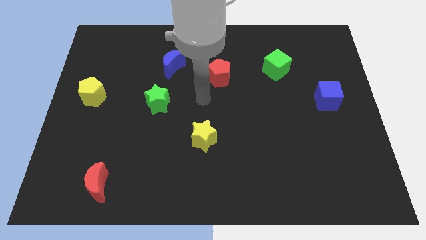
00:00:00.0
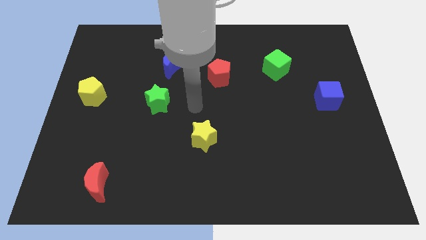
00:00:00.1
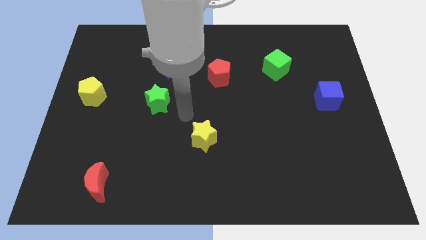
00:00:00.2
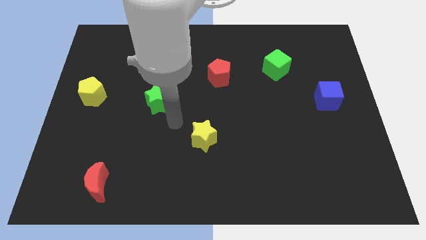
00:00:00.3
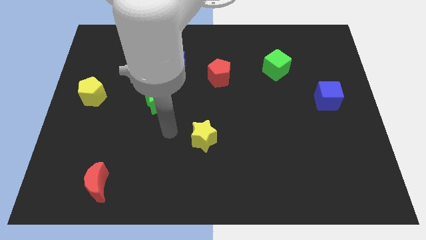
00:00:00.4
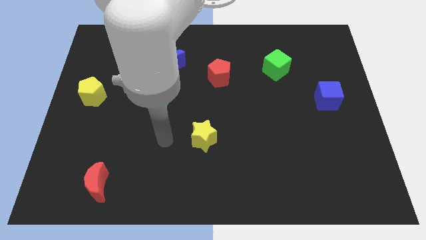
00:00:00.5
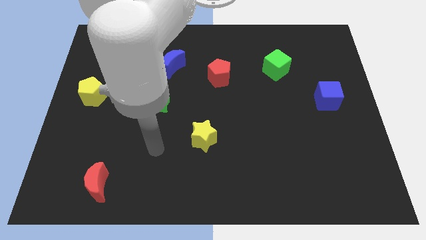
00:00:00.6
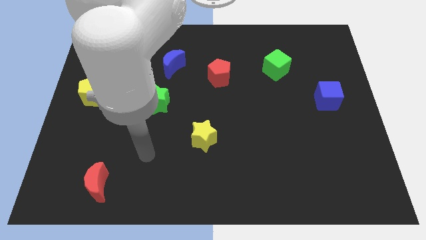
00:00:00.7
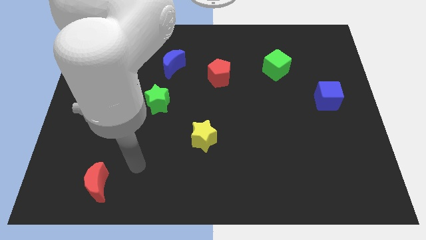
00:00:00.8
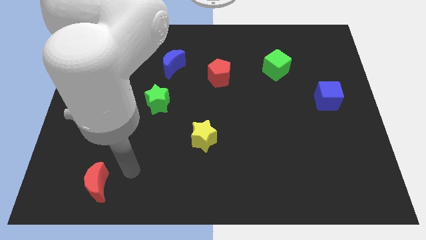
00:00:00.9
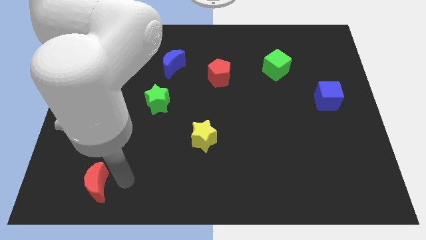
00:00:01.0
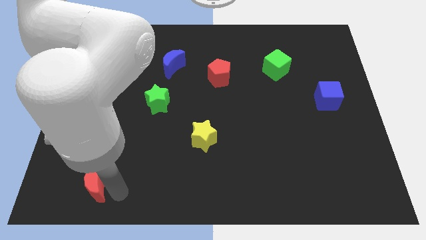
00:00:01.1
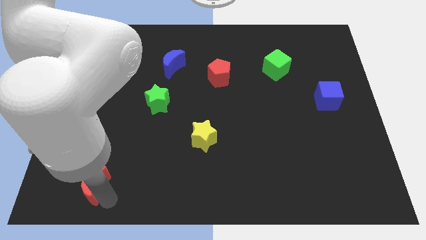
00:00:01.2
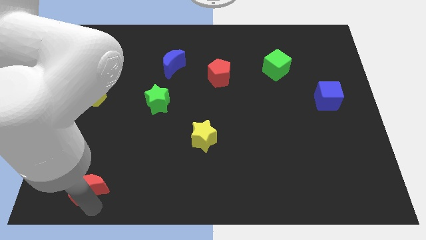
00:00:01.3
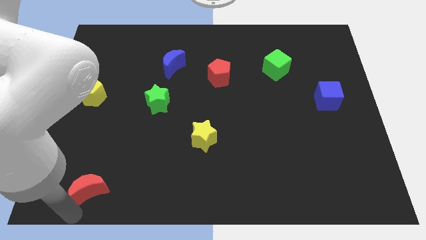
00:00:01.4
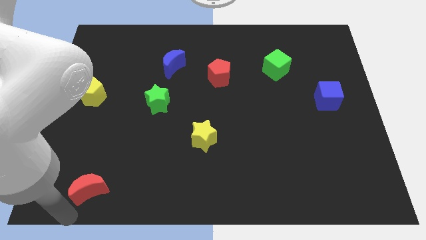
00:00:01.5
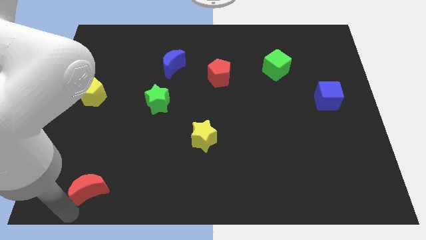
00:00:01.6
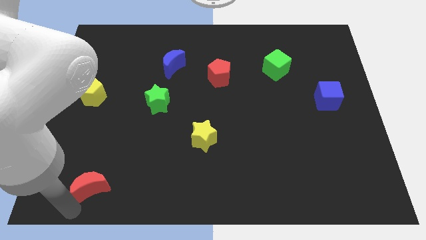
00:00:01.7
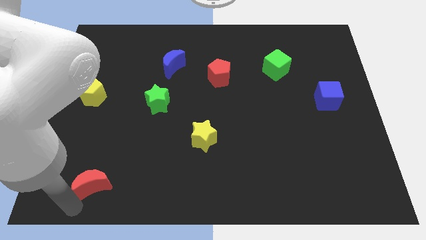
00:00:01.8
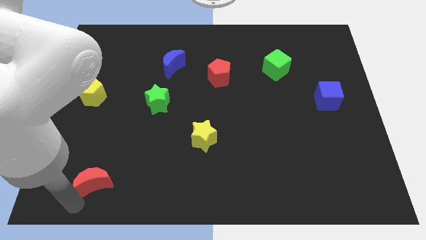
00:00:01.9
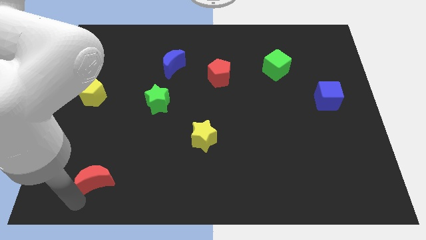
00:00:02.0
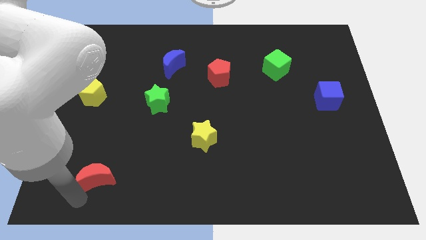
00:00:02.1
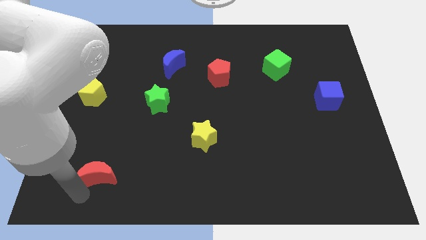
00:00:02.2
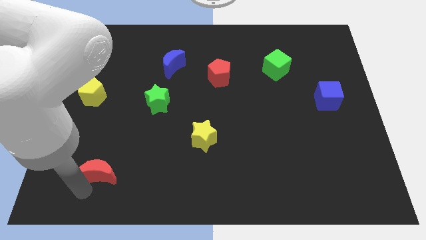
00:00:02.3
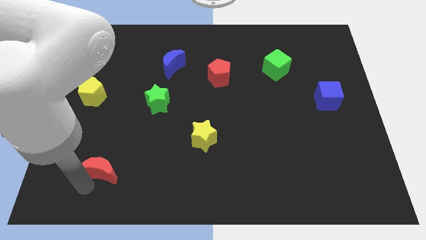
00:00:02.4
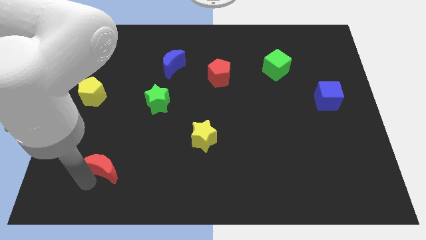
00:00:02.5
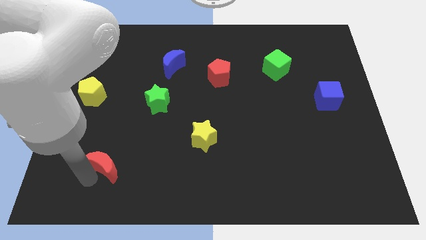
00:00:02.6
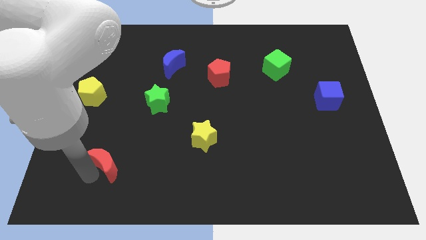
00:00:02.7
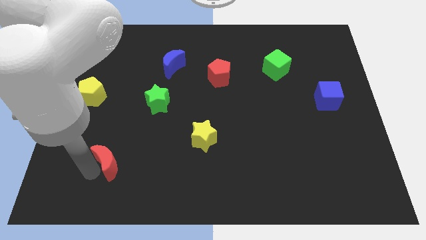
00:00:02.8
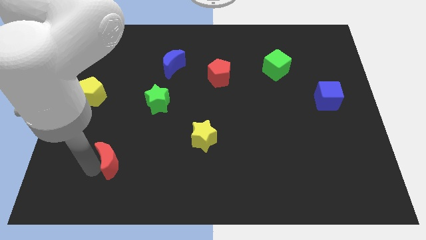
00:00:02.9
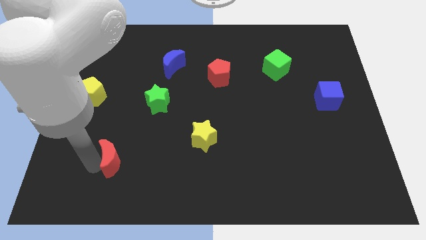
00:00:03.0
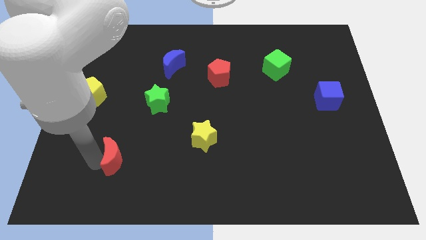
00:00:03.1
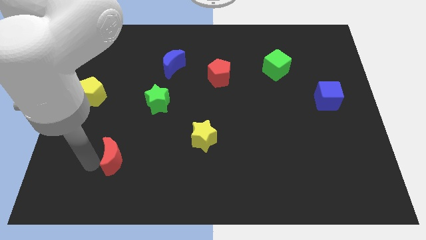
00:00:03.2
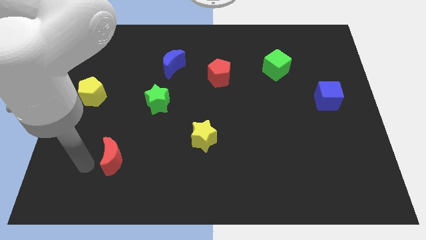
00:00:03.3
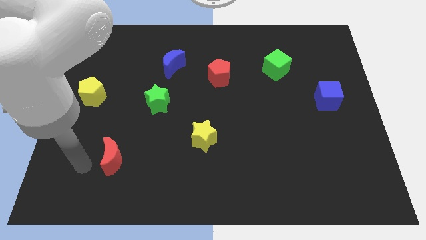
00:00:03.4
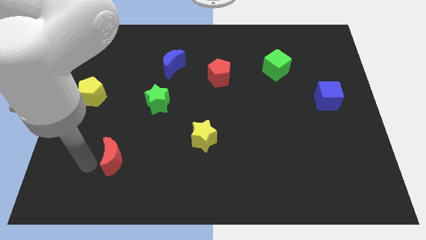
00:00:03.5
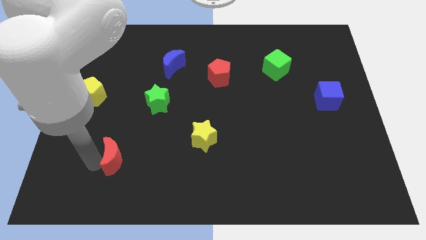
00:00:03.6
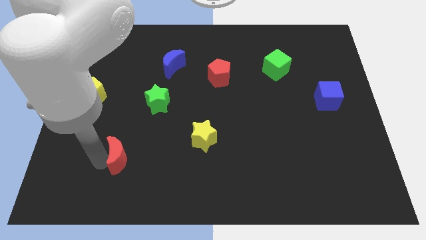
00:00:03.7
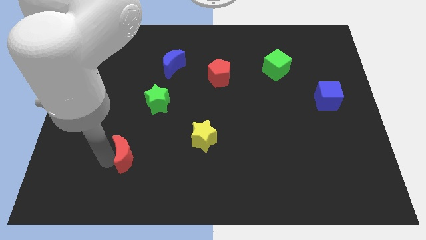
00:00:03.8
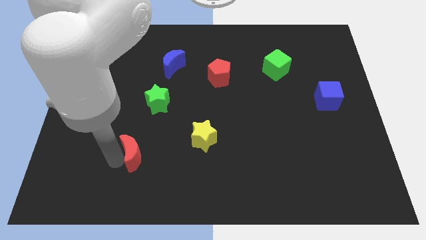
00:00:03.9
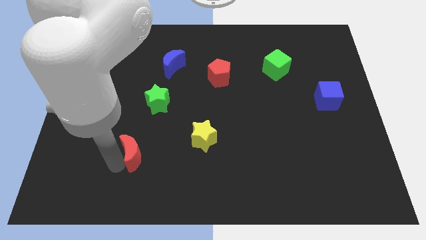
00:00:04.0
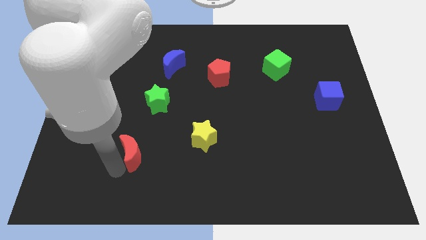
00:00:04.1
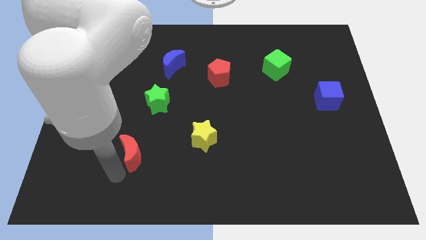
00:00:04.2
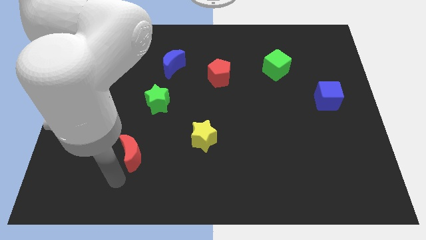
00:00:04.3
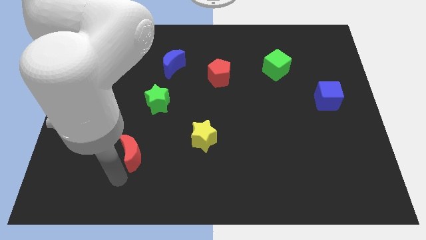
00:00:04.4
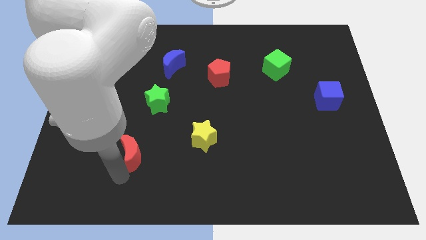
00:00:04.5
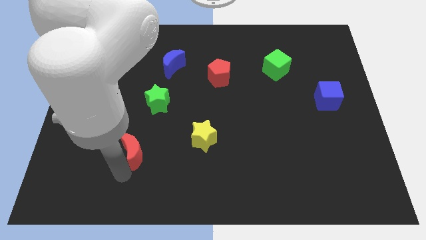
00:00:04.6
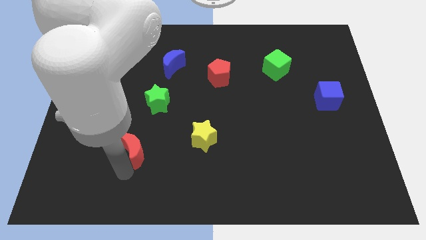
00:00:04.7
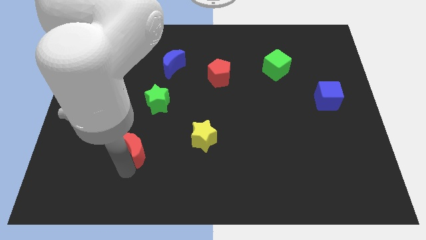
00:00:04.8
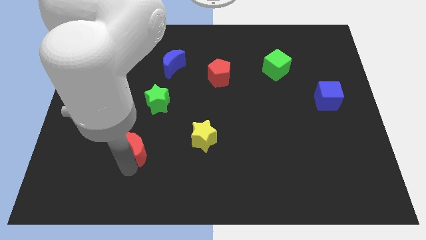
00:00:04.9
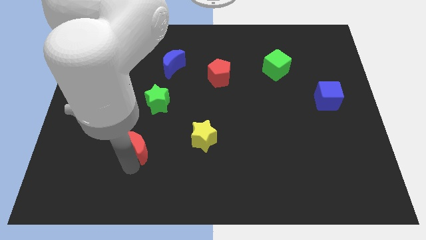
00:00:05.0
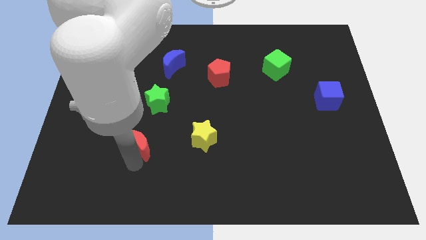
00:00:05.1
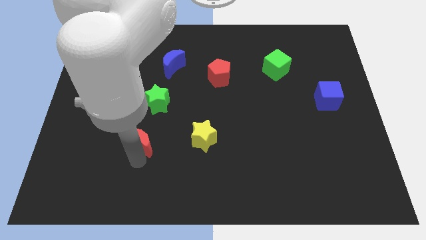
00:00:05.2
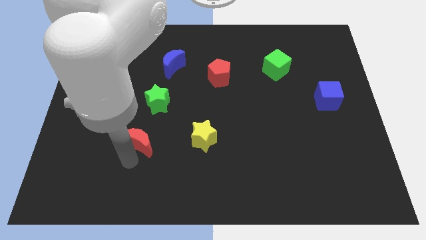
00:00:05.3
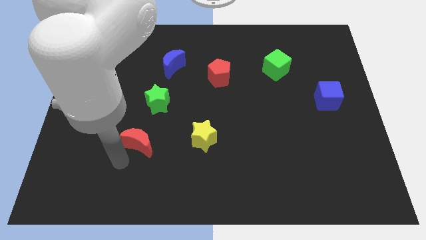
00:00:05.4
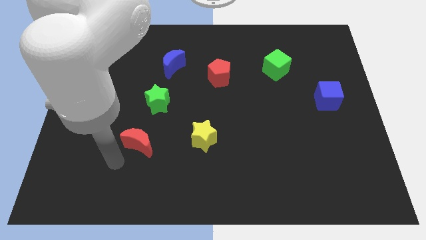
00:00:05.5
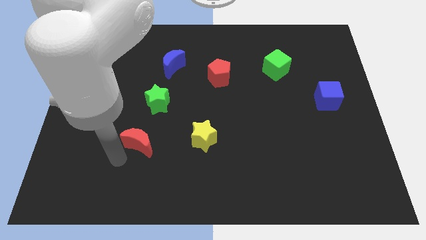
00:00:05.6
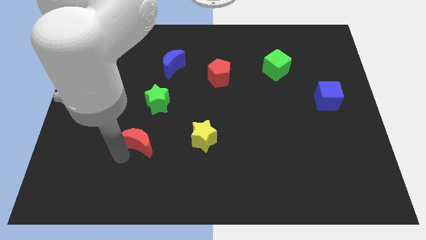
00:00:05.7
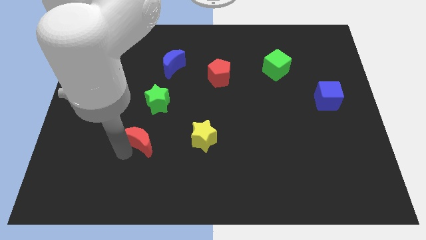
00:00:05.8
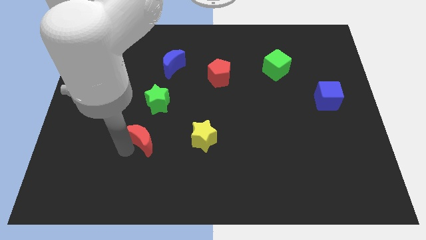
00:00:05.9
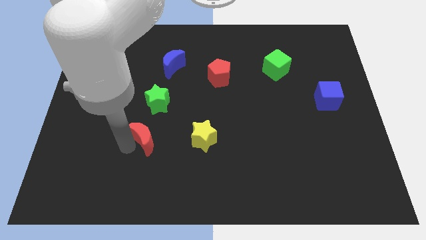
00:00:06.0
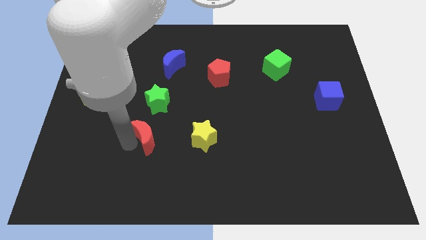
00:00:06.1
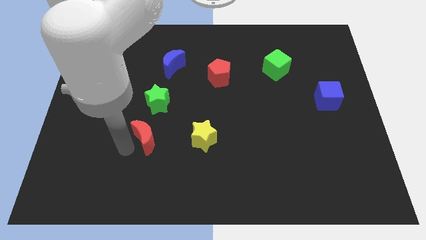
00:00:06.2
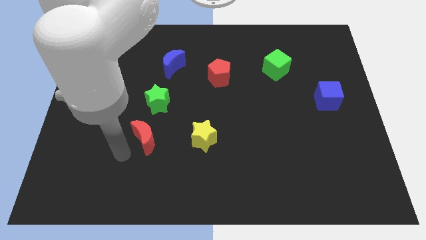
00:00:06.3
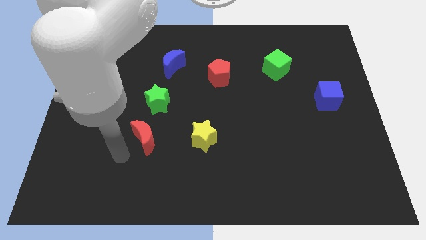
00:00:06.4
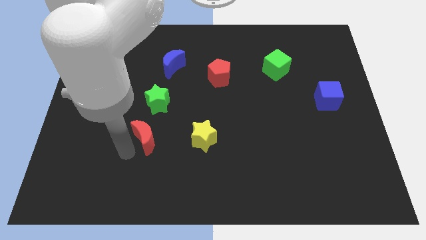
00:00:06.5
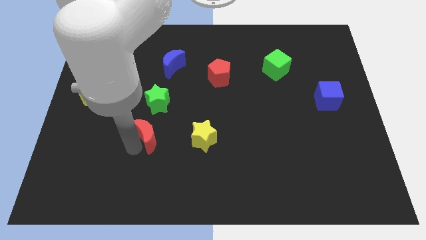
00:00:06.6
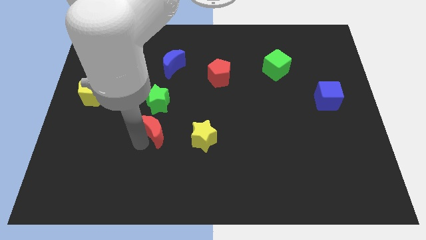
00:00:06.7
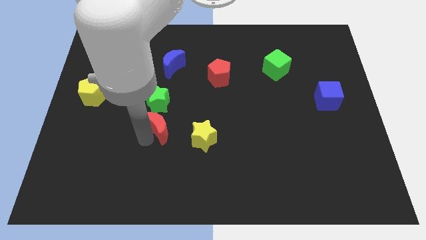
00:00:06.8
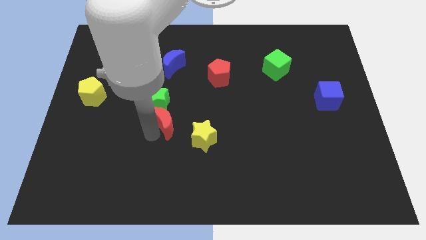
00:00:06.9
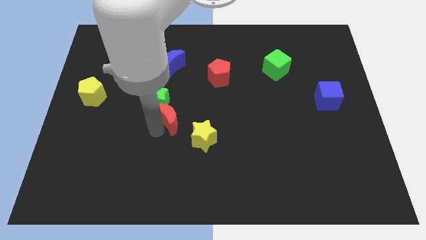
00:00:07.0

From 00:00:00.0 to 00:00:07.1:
slide the red moon up and right

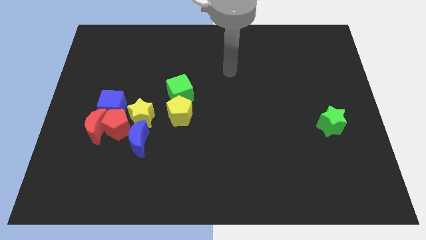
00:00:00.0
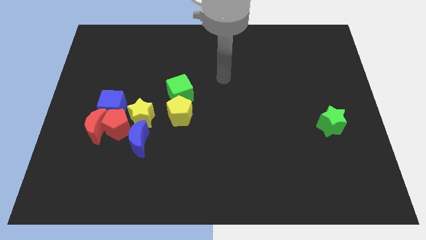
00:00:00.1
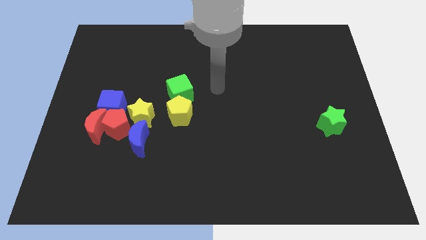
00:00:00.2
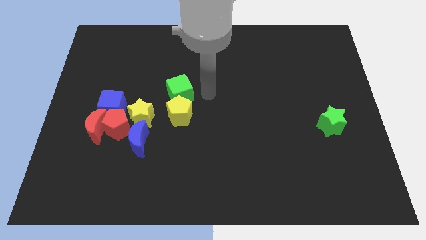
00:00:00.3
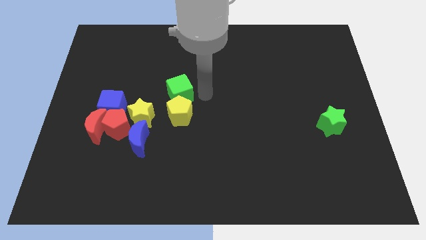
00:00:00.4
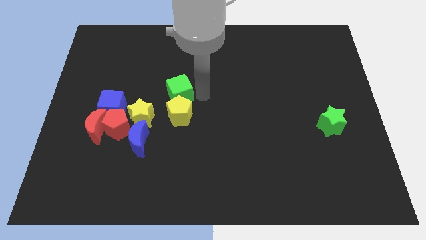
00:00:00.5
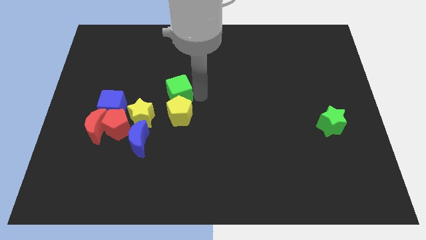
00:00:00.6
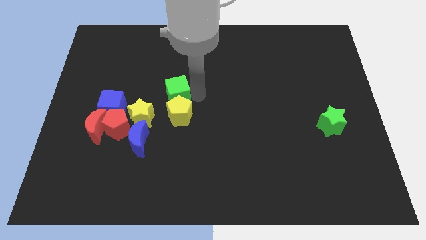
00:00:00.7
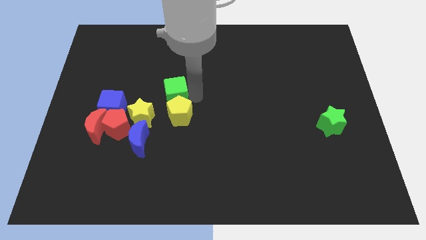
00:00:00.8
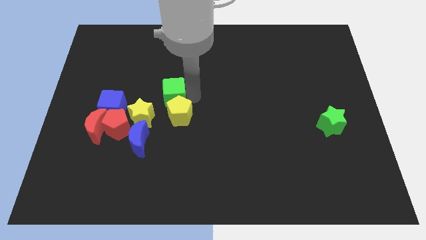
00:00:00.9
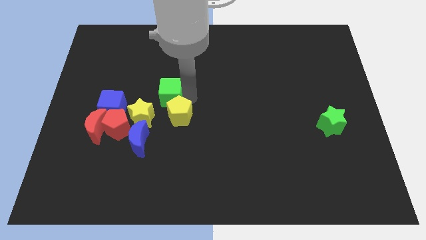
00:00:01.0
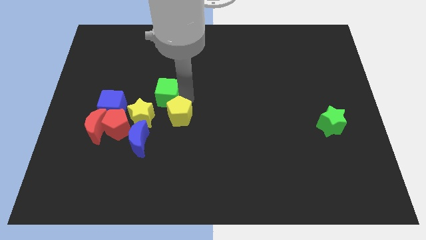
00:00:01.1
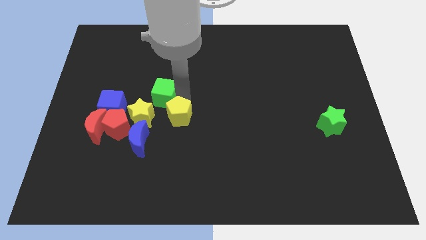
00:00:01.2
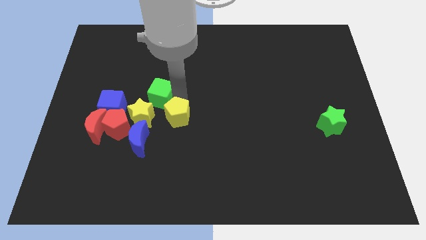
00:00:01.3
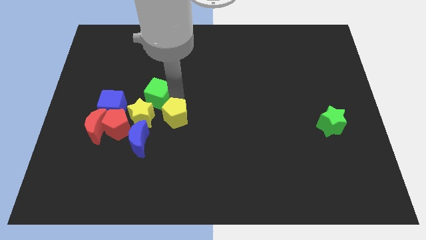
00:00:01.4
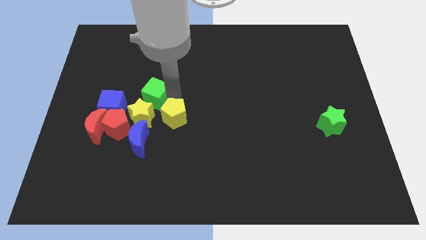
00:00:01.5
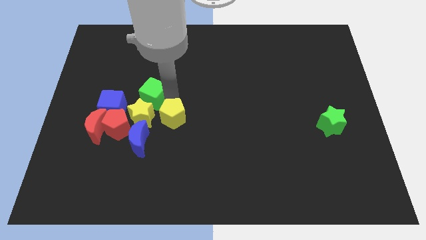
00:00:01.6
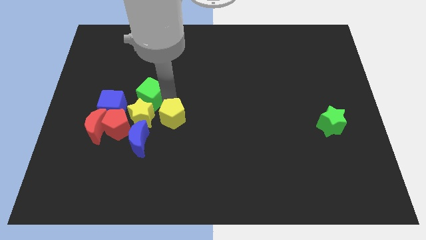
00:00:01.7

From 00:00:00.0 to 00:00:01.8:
move the green cube a little bit to the left

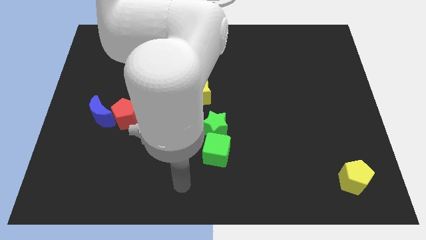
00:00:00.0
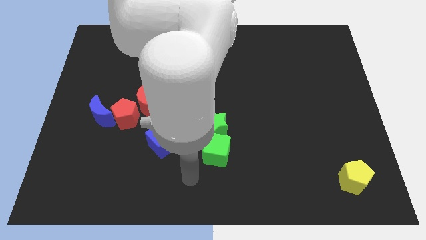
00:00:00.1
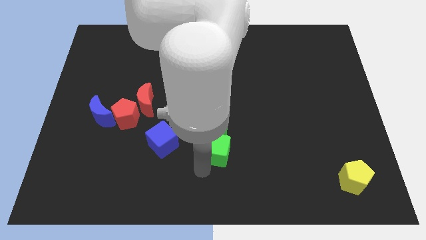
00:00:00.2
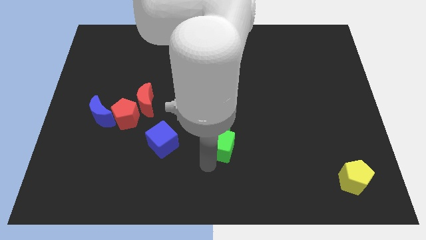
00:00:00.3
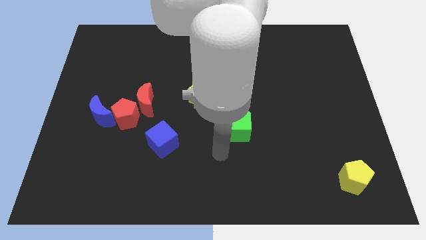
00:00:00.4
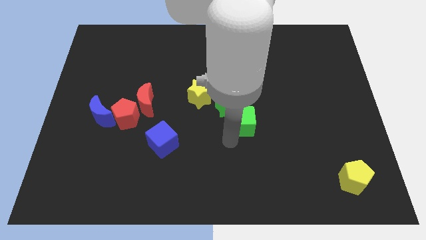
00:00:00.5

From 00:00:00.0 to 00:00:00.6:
push the green star up a little bit
